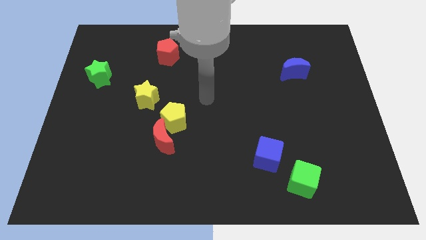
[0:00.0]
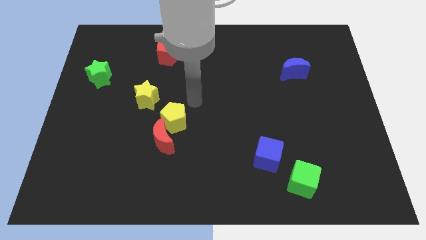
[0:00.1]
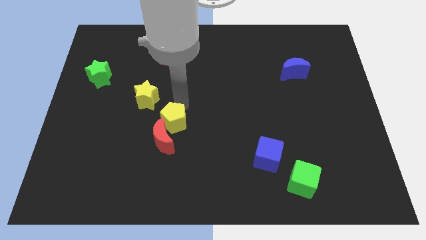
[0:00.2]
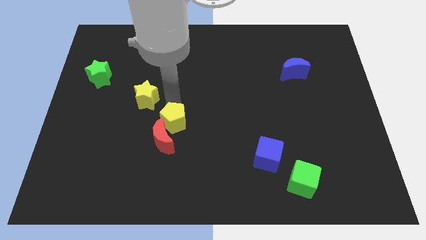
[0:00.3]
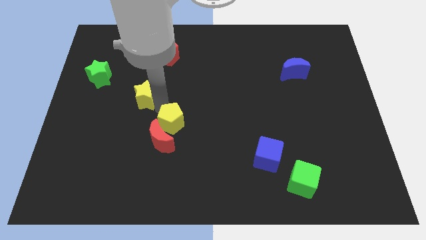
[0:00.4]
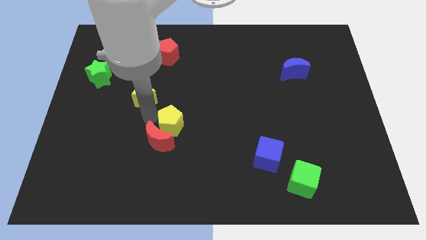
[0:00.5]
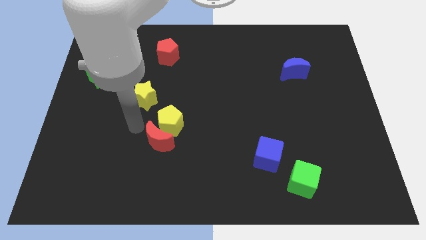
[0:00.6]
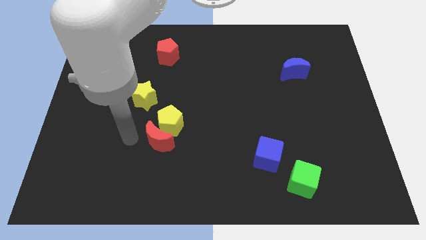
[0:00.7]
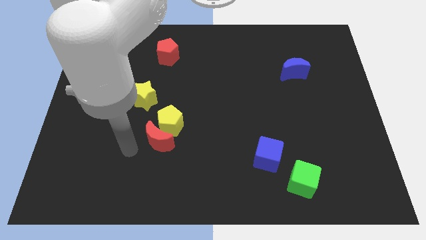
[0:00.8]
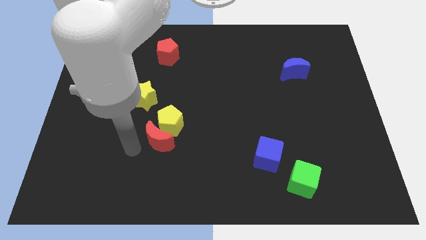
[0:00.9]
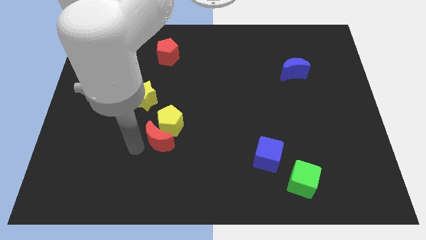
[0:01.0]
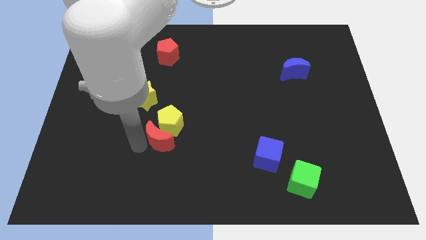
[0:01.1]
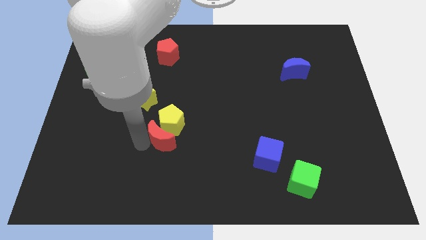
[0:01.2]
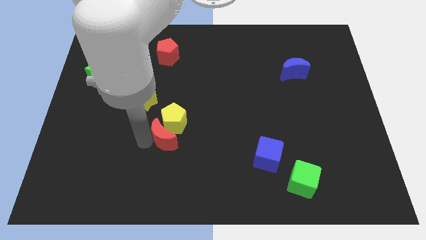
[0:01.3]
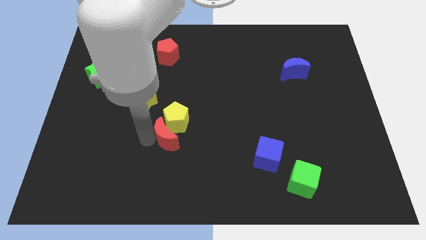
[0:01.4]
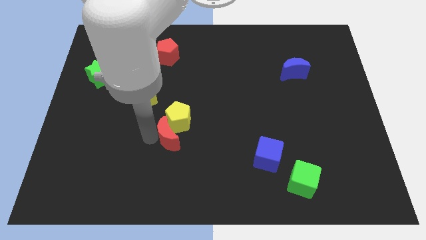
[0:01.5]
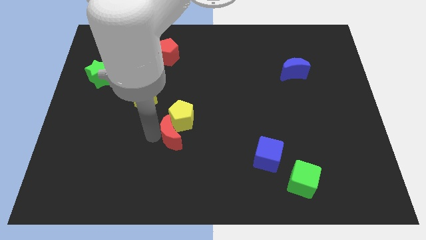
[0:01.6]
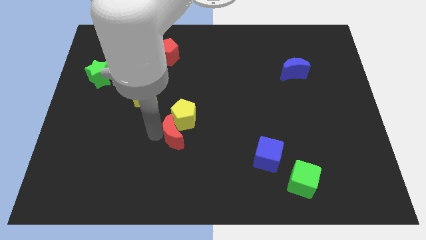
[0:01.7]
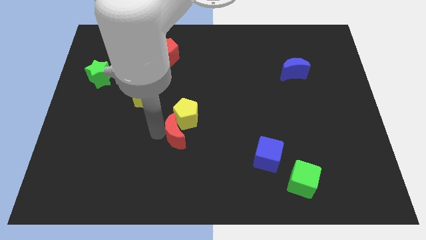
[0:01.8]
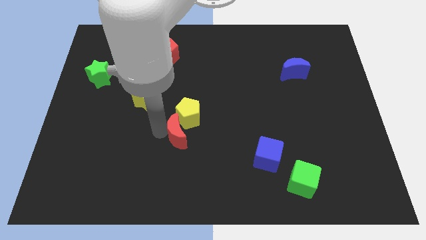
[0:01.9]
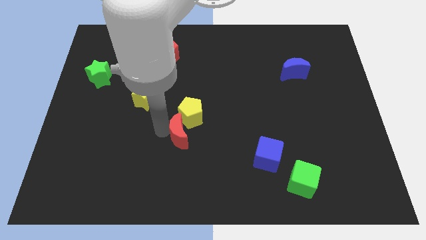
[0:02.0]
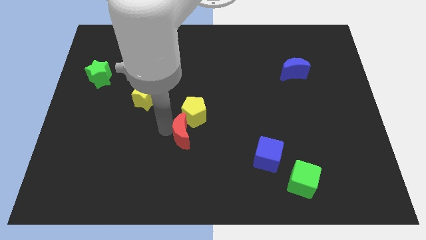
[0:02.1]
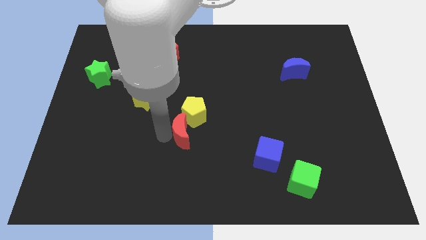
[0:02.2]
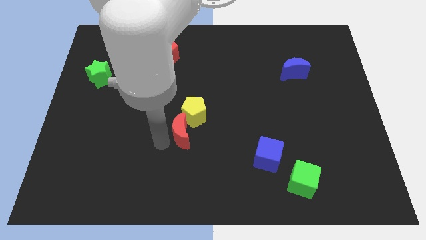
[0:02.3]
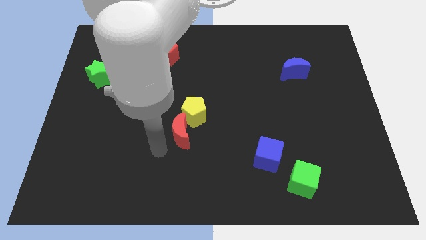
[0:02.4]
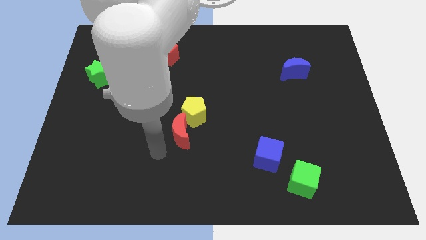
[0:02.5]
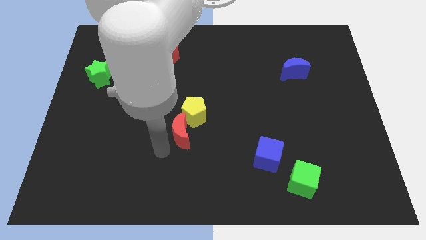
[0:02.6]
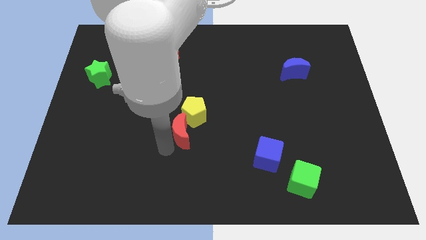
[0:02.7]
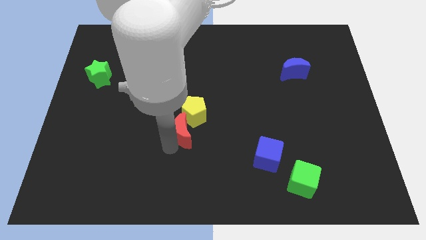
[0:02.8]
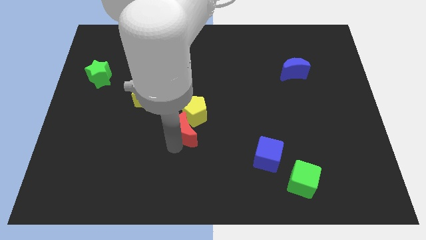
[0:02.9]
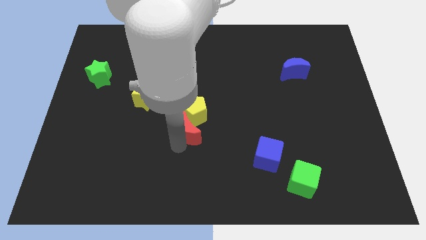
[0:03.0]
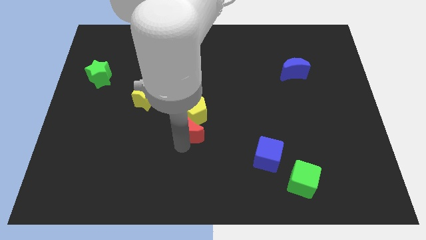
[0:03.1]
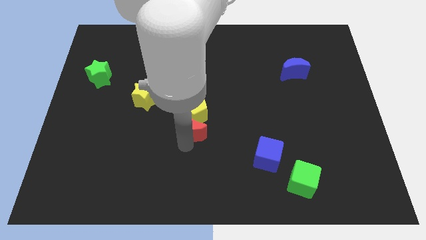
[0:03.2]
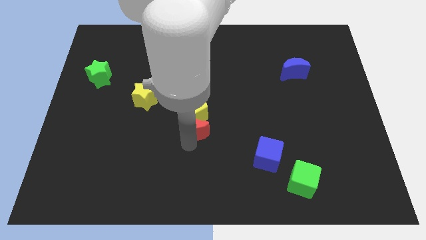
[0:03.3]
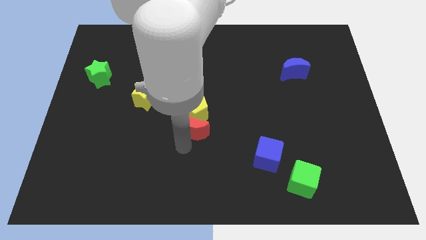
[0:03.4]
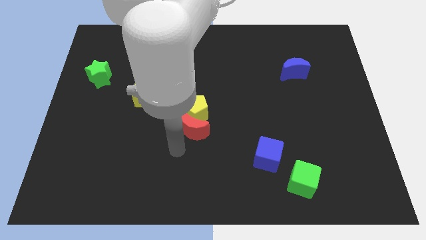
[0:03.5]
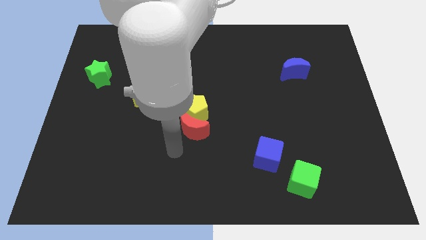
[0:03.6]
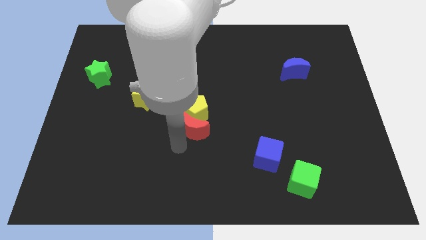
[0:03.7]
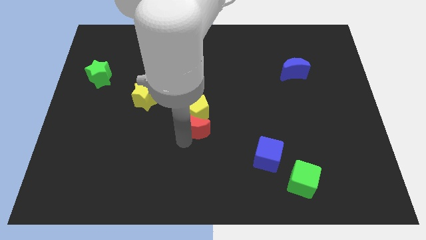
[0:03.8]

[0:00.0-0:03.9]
slightly push the red moon up and to the right

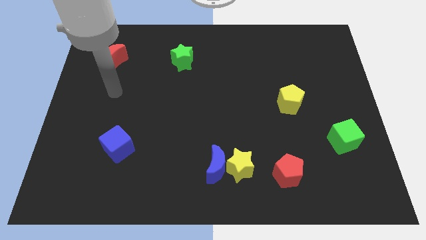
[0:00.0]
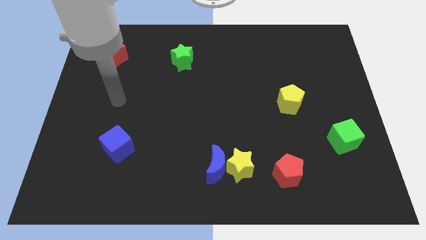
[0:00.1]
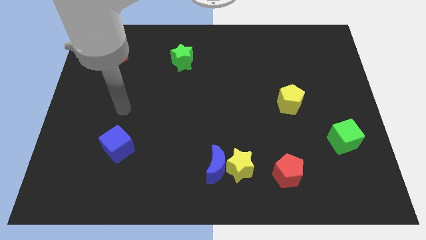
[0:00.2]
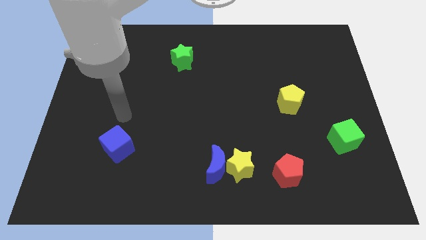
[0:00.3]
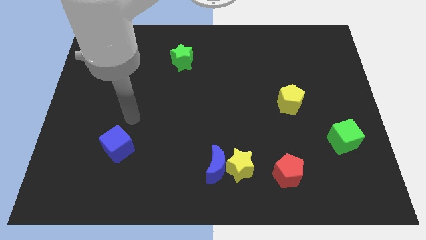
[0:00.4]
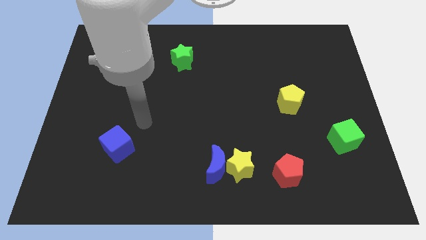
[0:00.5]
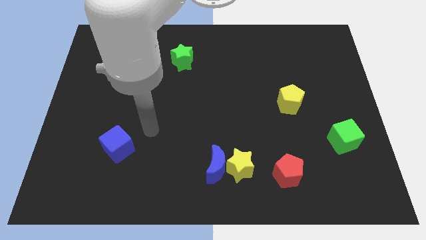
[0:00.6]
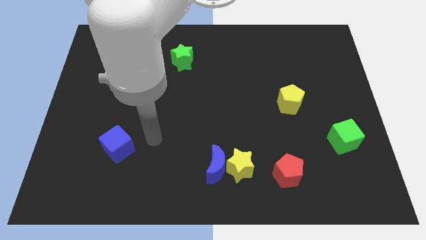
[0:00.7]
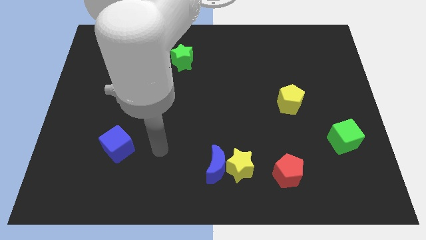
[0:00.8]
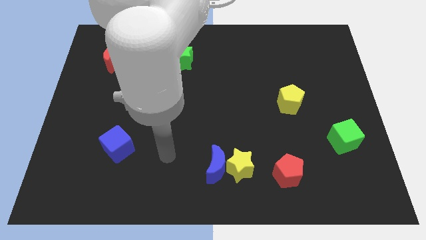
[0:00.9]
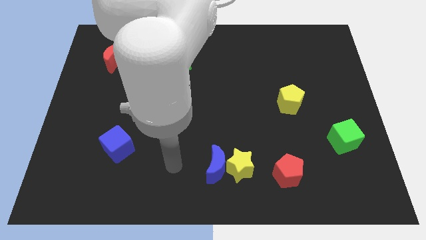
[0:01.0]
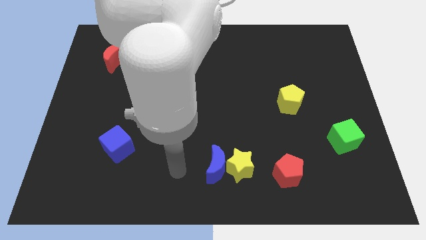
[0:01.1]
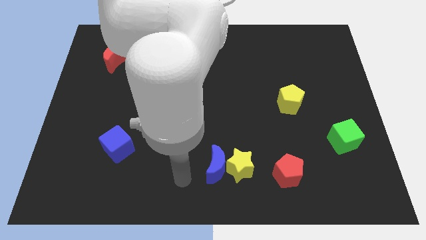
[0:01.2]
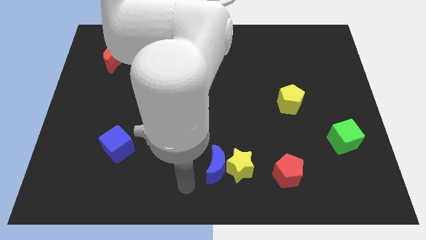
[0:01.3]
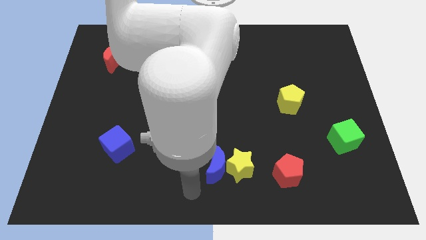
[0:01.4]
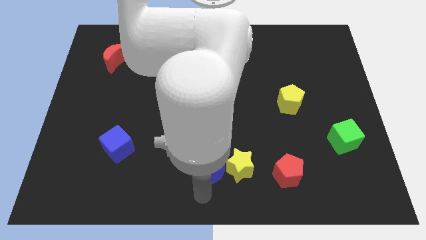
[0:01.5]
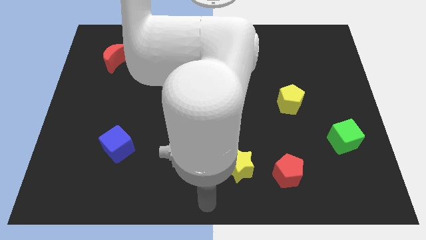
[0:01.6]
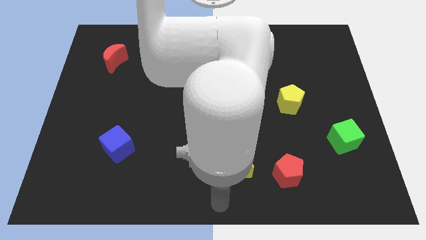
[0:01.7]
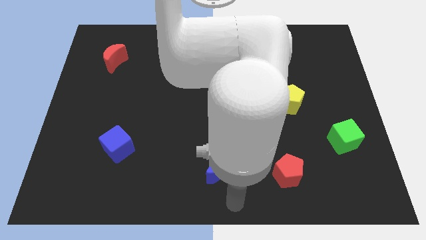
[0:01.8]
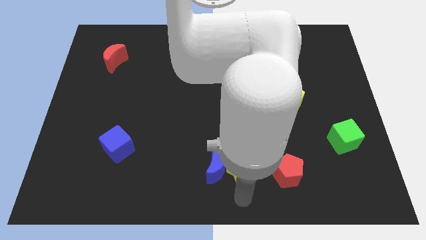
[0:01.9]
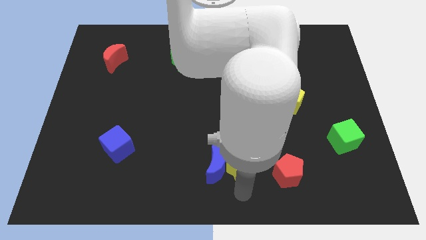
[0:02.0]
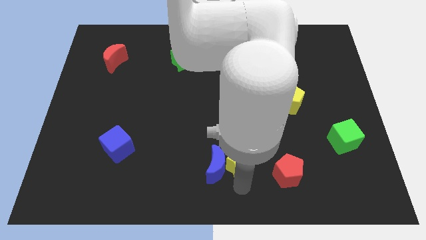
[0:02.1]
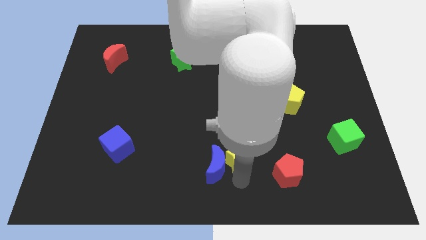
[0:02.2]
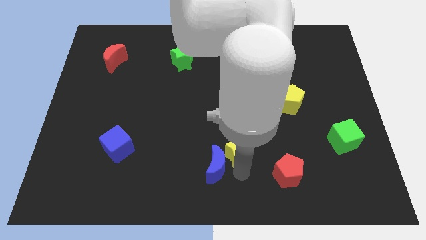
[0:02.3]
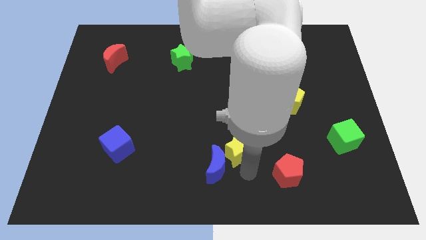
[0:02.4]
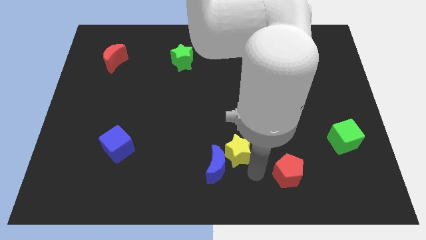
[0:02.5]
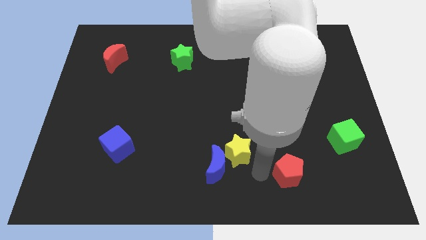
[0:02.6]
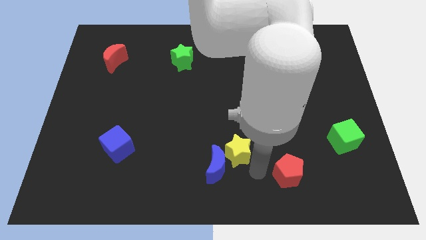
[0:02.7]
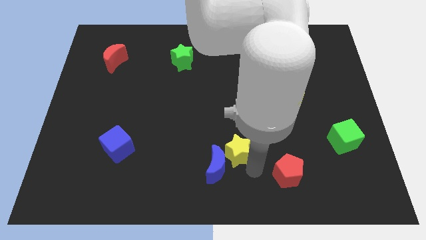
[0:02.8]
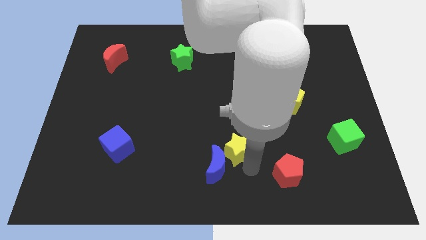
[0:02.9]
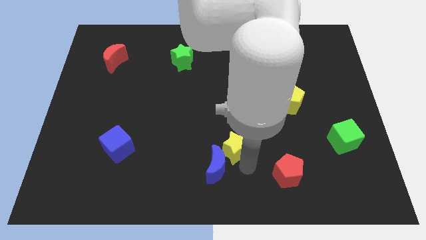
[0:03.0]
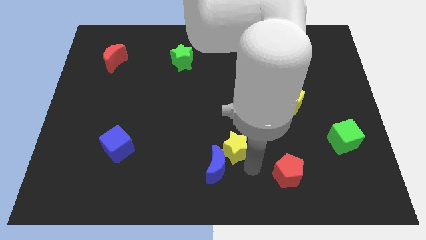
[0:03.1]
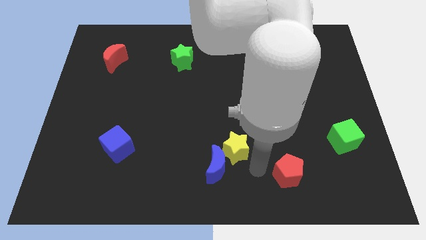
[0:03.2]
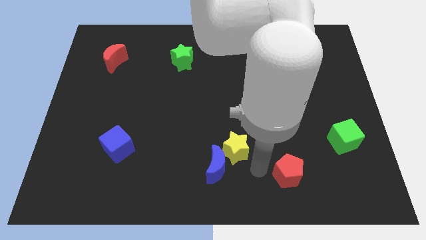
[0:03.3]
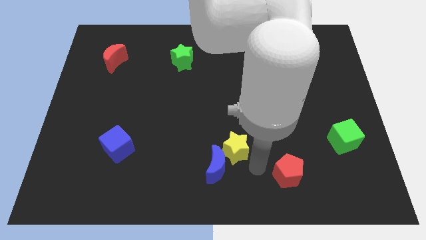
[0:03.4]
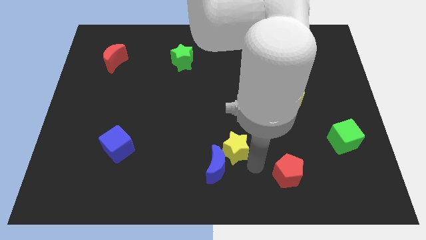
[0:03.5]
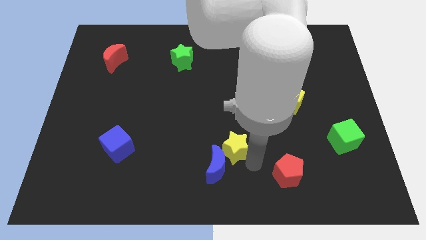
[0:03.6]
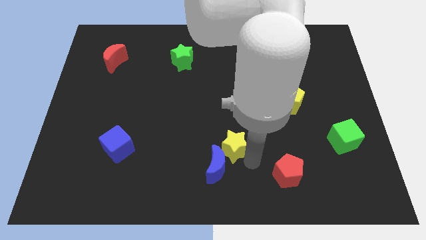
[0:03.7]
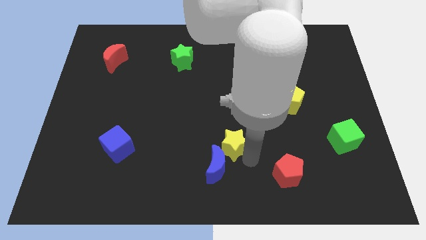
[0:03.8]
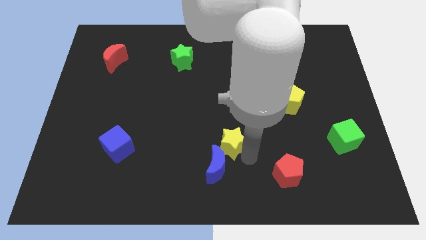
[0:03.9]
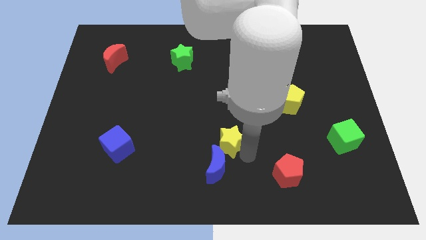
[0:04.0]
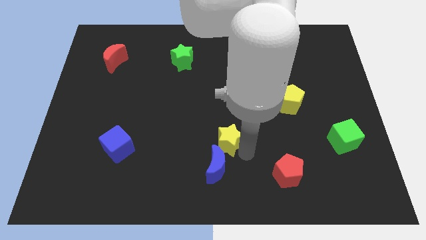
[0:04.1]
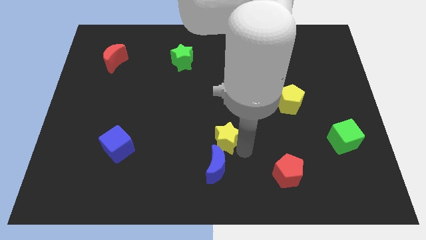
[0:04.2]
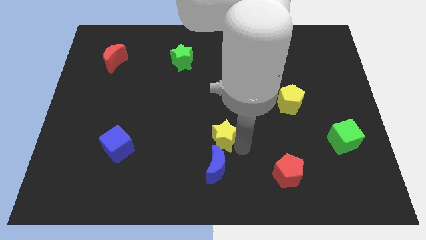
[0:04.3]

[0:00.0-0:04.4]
push the yellow star a little diagonally up and left
